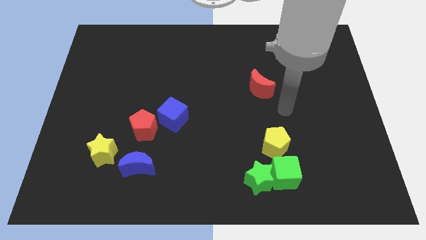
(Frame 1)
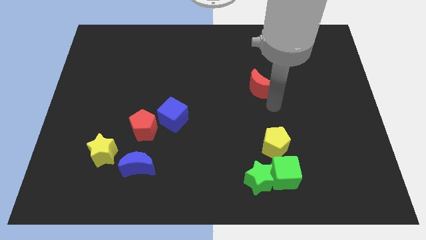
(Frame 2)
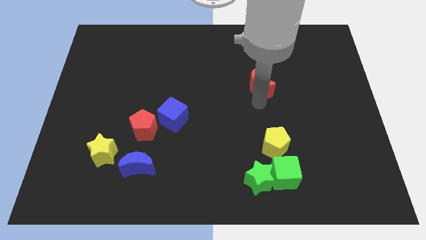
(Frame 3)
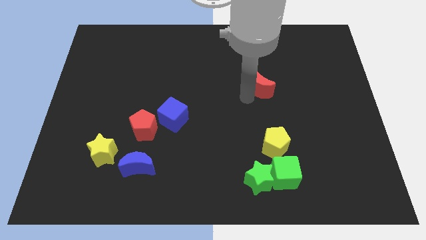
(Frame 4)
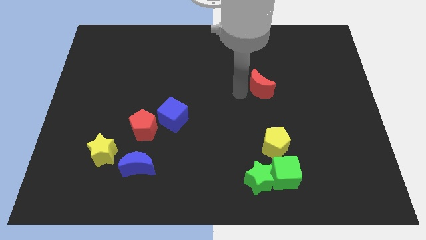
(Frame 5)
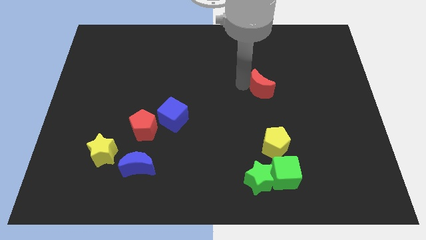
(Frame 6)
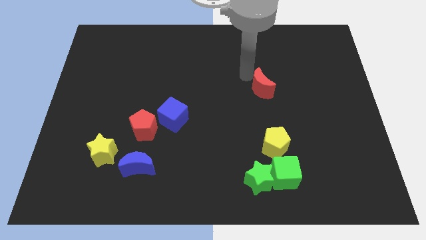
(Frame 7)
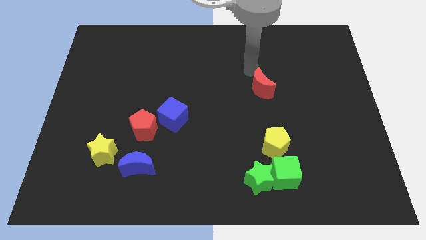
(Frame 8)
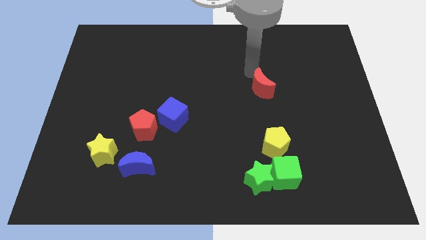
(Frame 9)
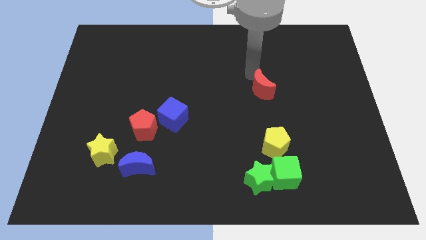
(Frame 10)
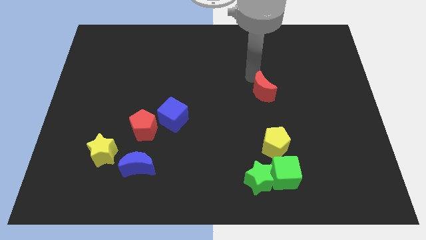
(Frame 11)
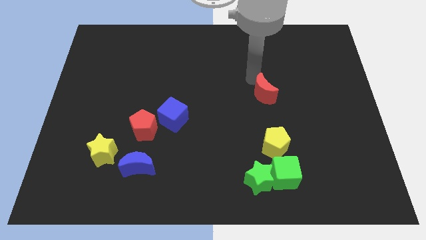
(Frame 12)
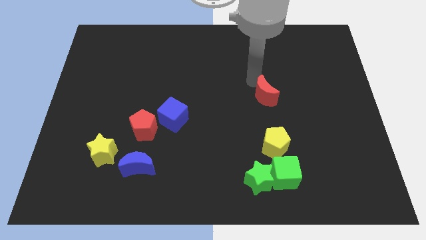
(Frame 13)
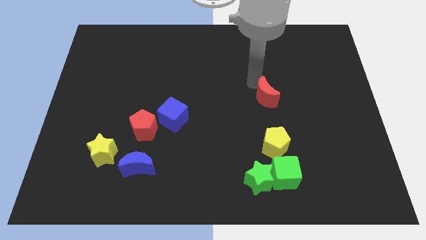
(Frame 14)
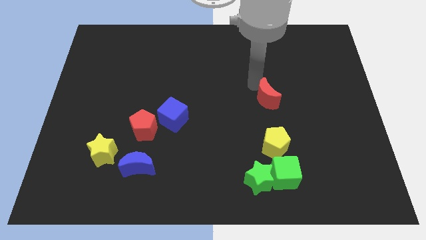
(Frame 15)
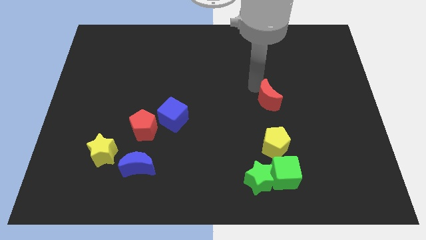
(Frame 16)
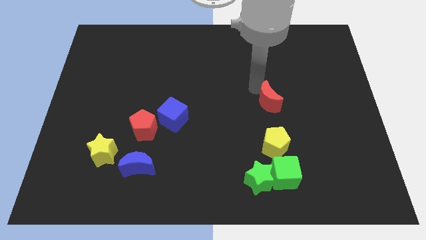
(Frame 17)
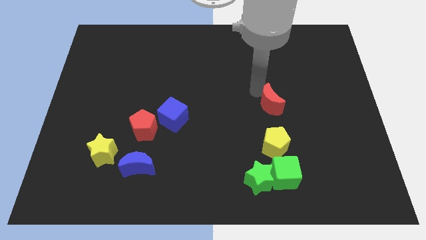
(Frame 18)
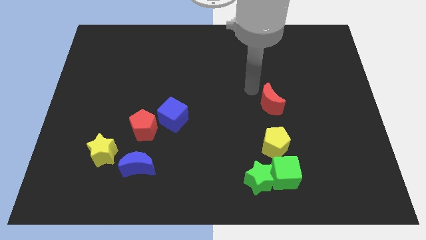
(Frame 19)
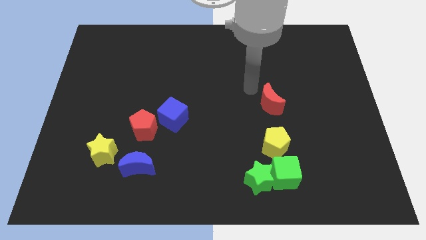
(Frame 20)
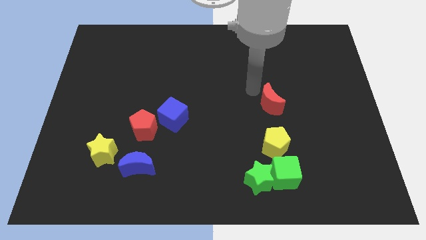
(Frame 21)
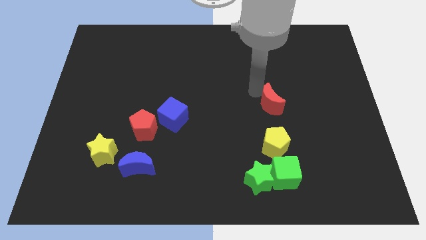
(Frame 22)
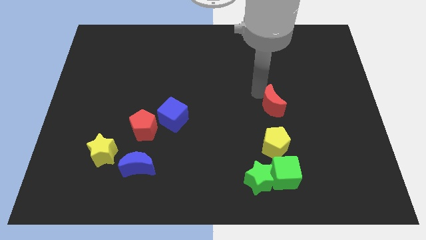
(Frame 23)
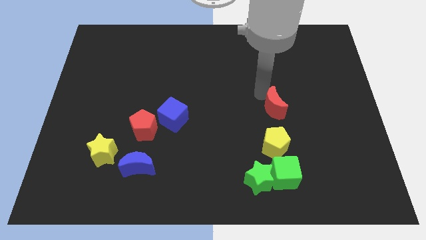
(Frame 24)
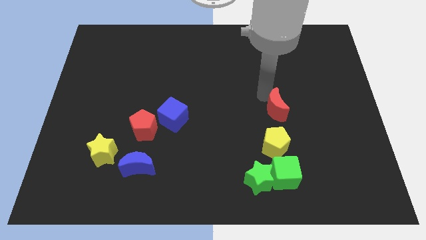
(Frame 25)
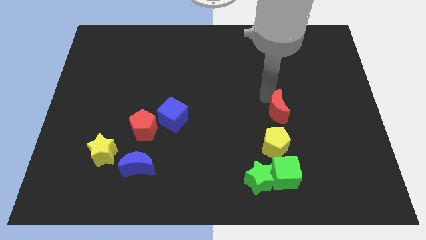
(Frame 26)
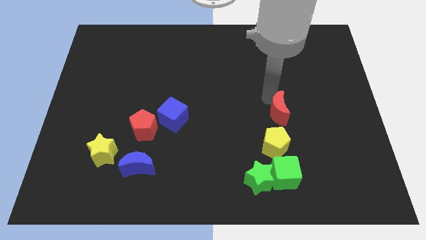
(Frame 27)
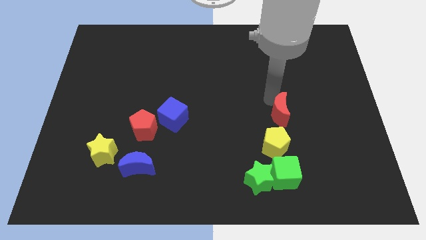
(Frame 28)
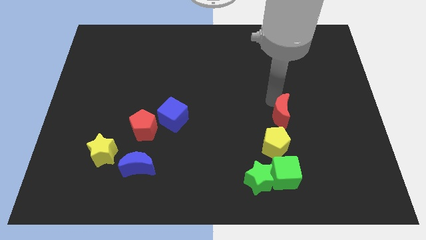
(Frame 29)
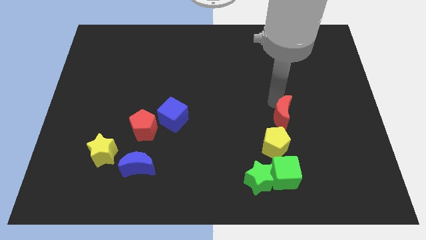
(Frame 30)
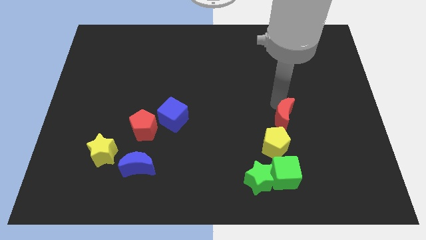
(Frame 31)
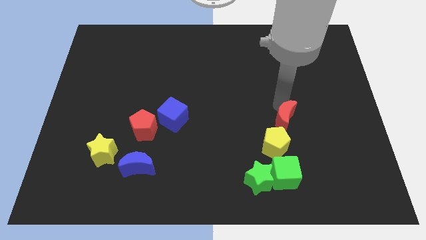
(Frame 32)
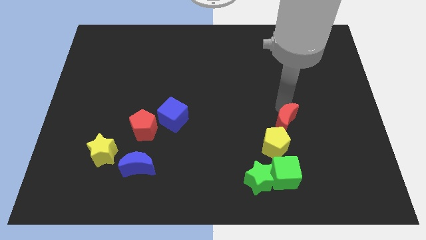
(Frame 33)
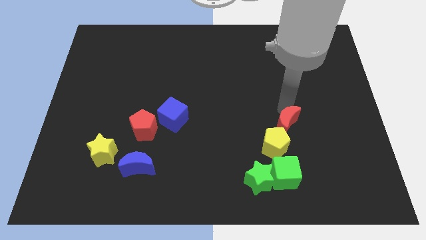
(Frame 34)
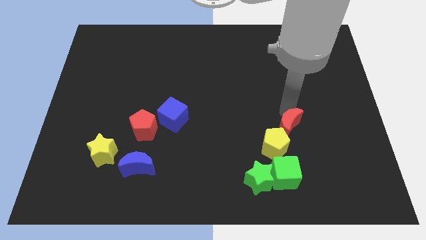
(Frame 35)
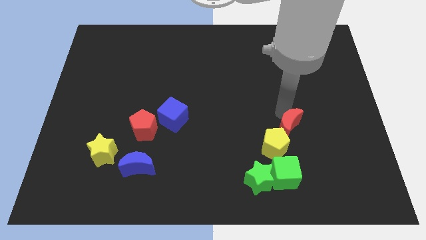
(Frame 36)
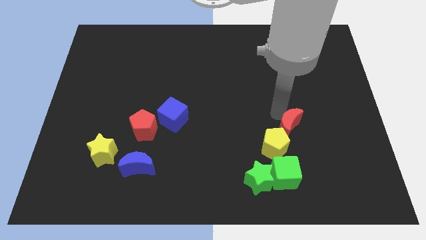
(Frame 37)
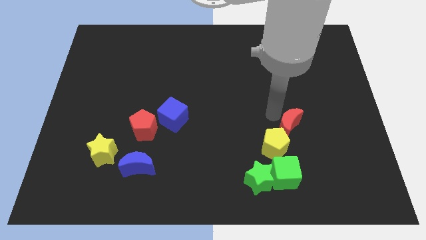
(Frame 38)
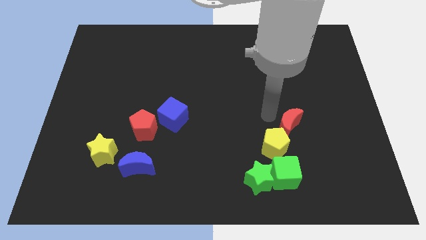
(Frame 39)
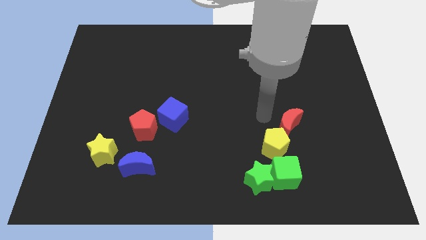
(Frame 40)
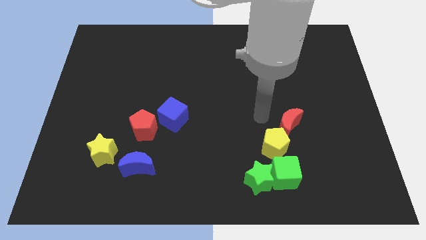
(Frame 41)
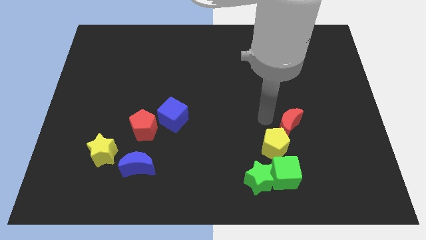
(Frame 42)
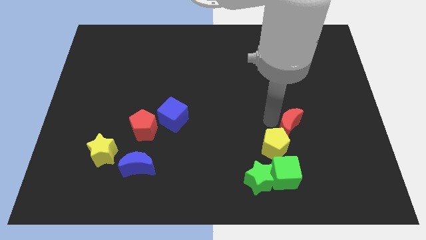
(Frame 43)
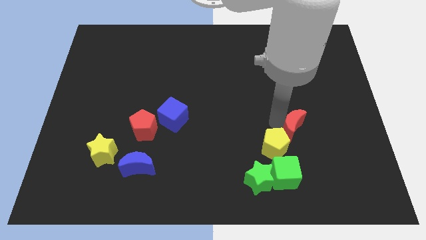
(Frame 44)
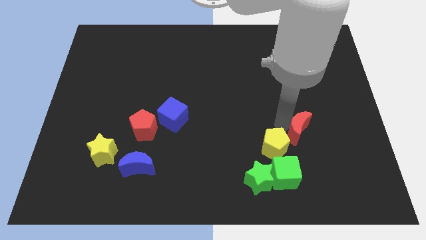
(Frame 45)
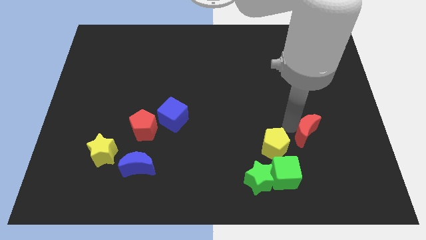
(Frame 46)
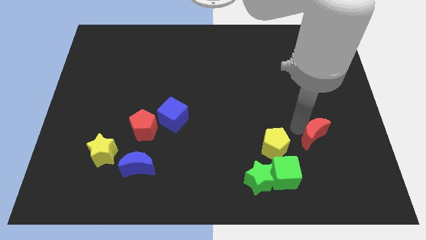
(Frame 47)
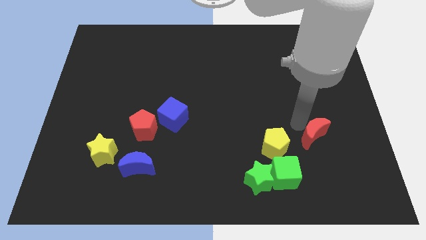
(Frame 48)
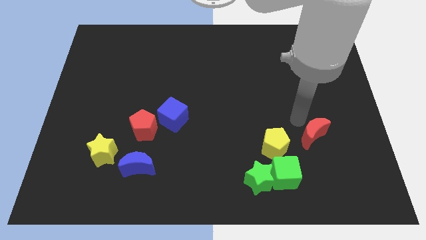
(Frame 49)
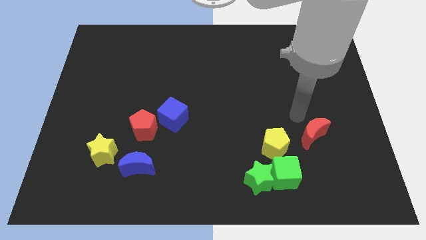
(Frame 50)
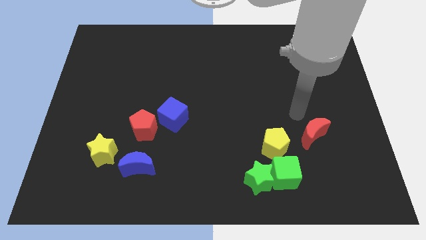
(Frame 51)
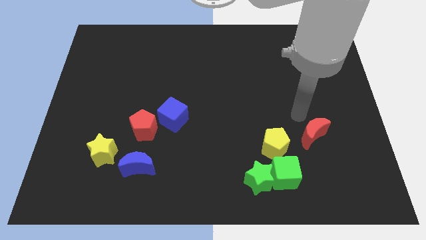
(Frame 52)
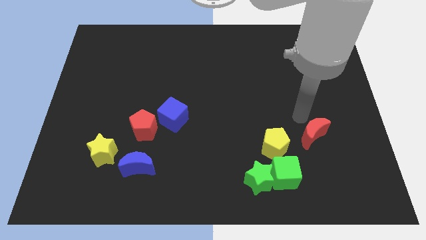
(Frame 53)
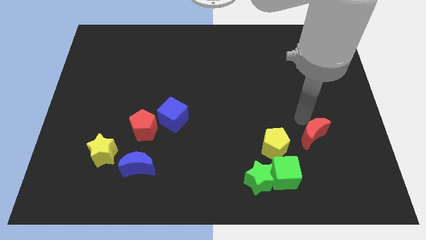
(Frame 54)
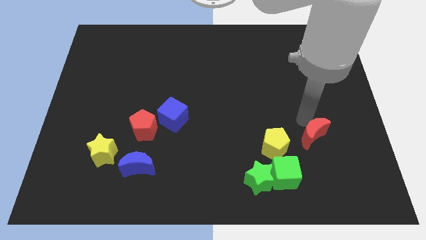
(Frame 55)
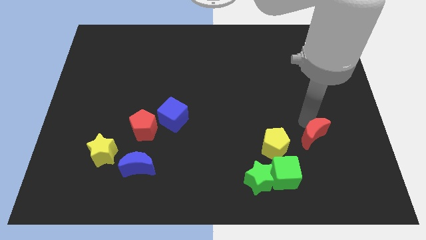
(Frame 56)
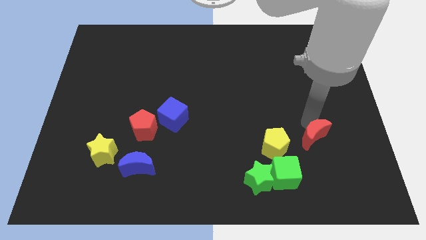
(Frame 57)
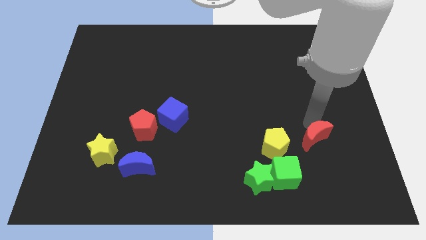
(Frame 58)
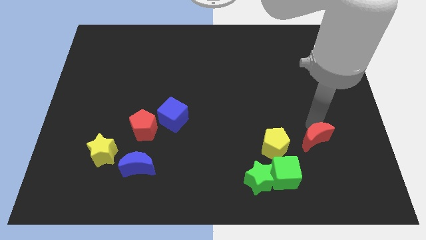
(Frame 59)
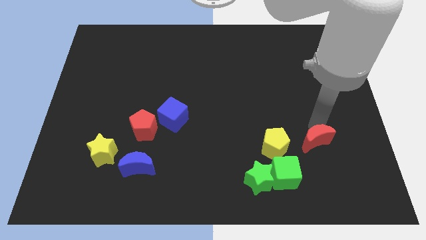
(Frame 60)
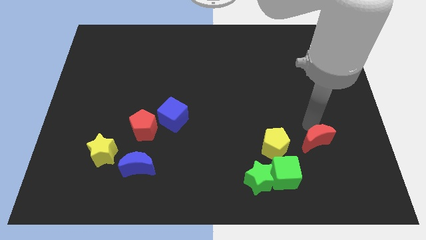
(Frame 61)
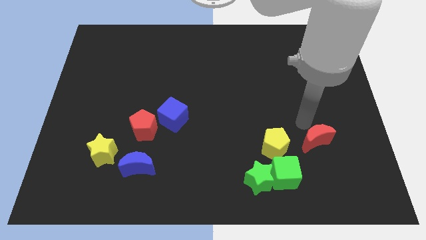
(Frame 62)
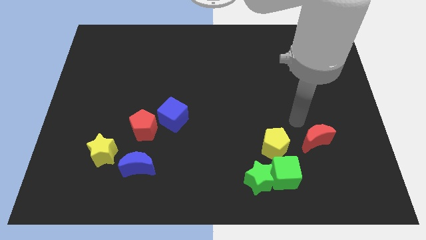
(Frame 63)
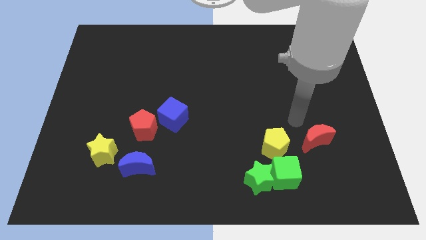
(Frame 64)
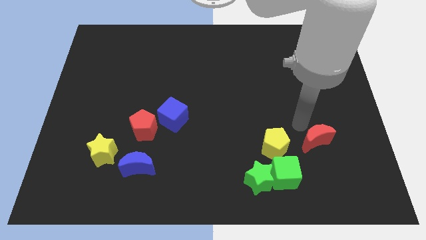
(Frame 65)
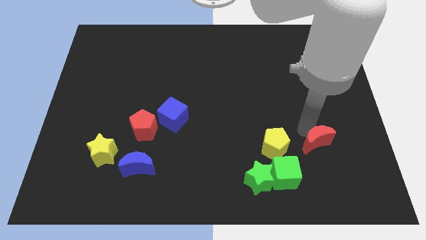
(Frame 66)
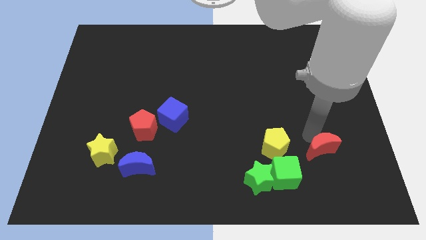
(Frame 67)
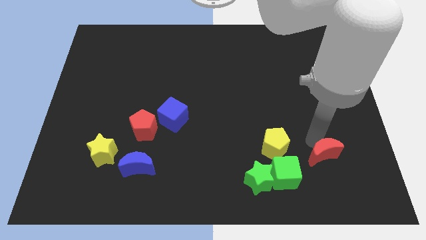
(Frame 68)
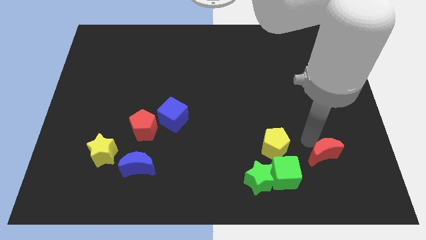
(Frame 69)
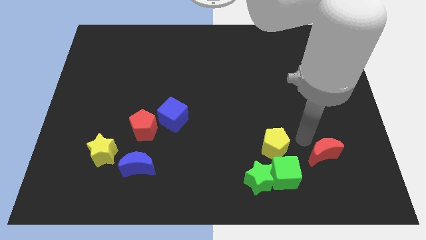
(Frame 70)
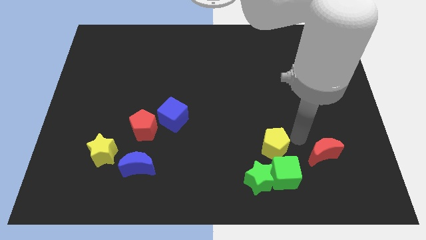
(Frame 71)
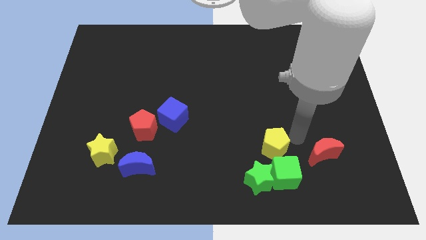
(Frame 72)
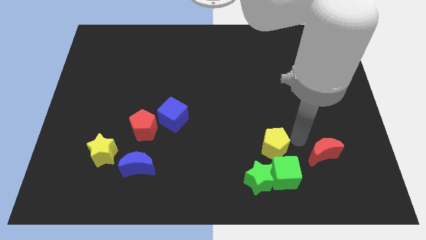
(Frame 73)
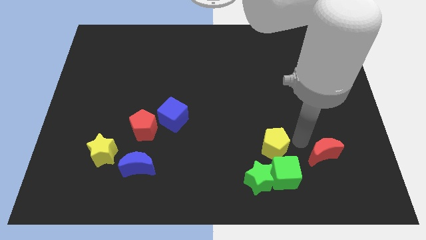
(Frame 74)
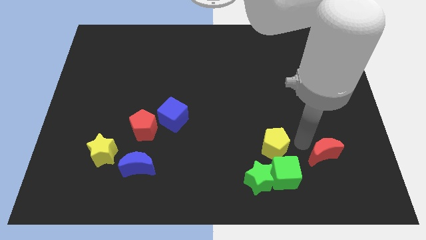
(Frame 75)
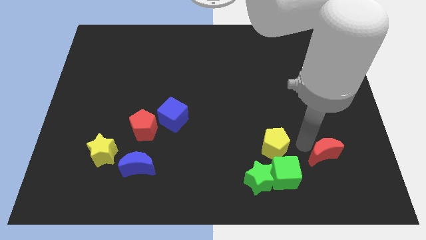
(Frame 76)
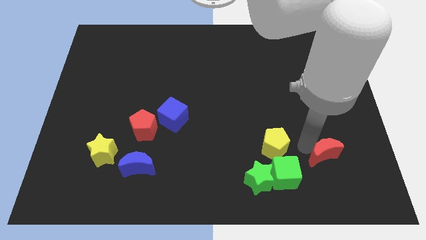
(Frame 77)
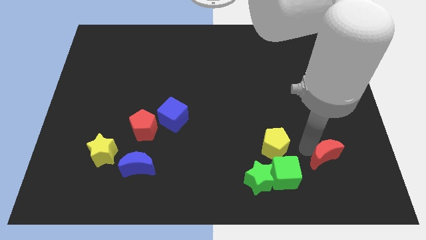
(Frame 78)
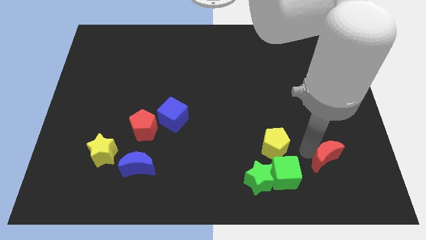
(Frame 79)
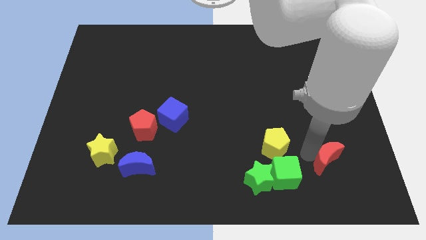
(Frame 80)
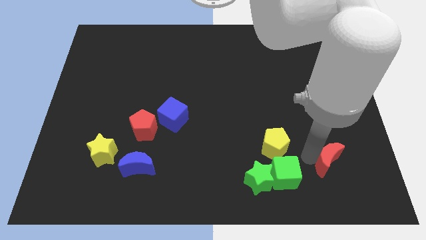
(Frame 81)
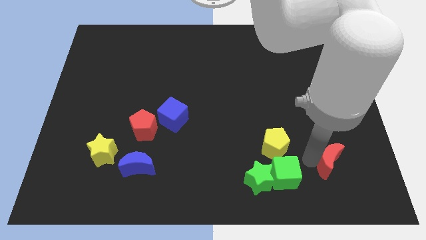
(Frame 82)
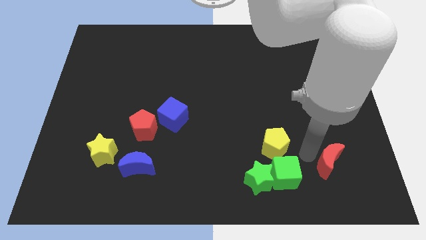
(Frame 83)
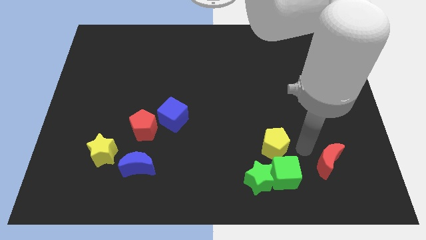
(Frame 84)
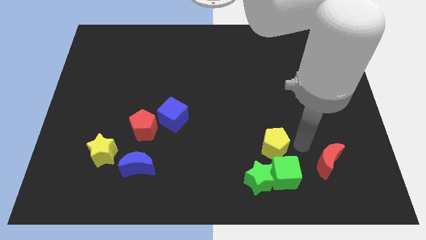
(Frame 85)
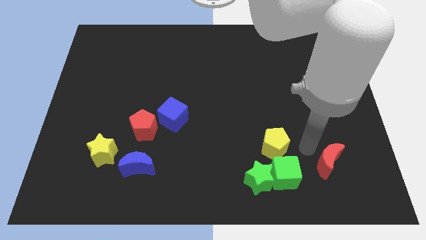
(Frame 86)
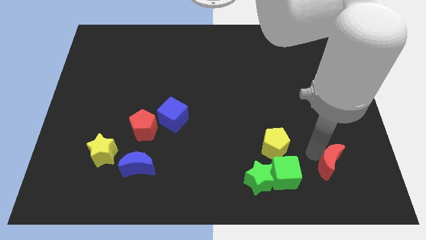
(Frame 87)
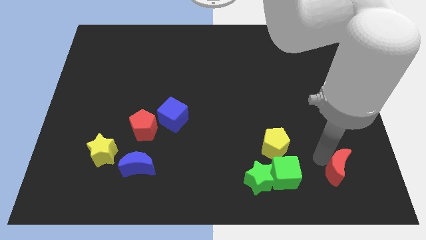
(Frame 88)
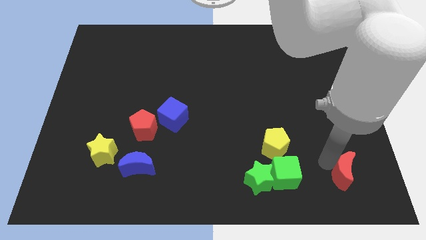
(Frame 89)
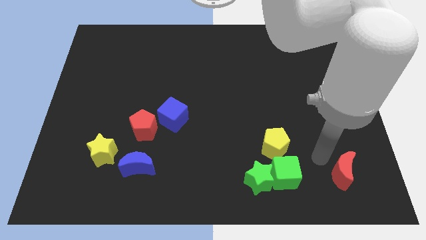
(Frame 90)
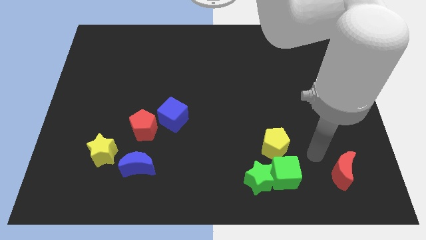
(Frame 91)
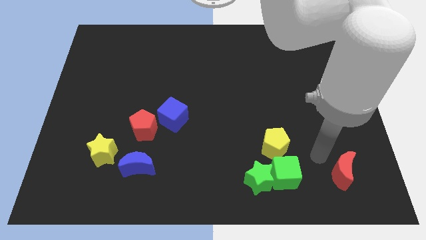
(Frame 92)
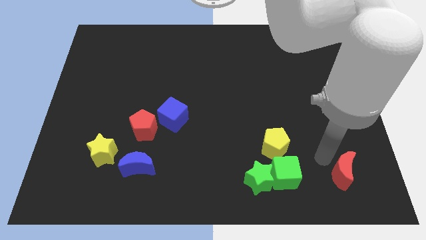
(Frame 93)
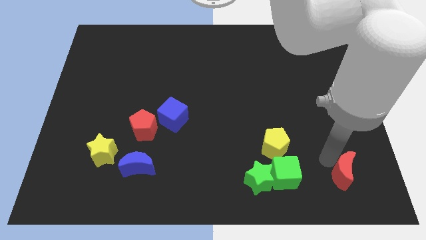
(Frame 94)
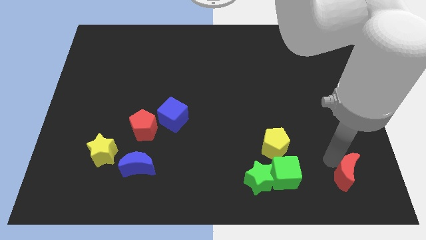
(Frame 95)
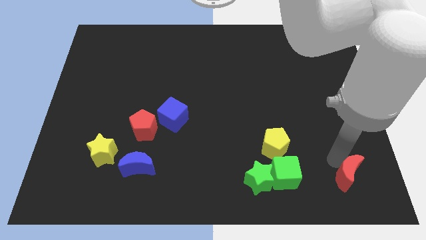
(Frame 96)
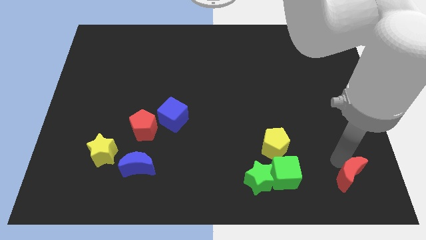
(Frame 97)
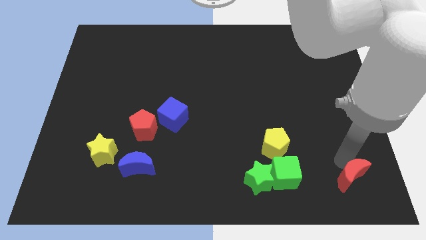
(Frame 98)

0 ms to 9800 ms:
slide the red moon to the bottom right of the board
